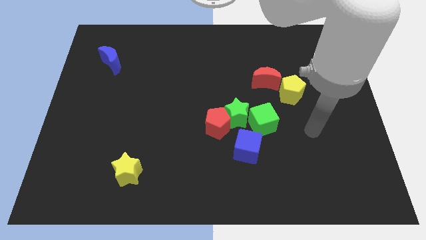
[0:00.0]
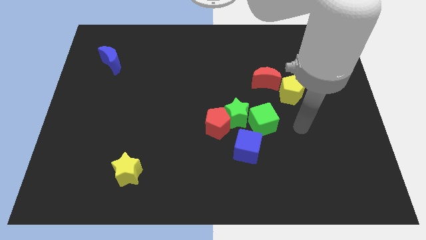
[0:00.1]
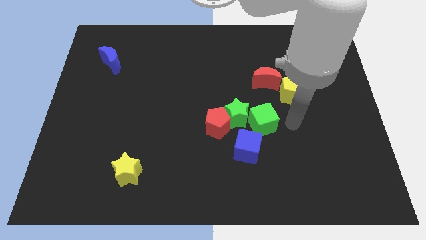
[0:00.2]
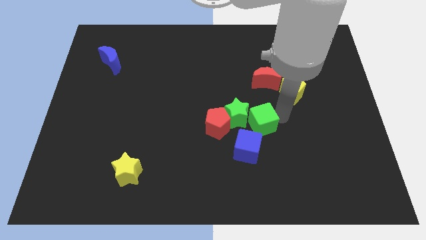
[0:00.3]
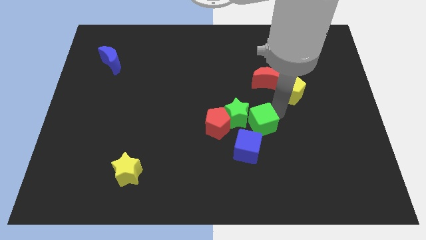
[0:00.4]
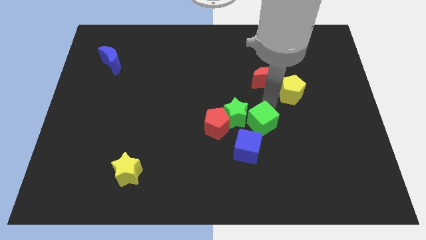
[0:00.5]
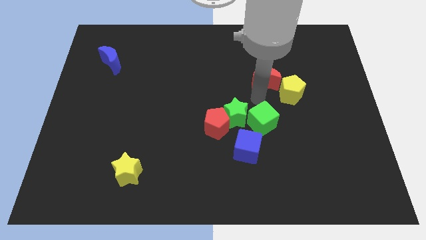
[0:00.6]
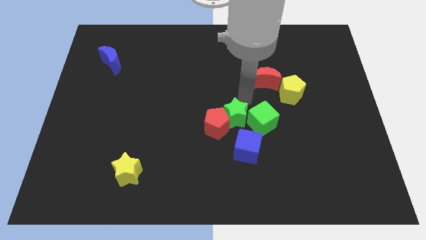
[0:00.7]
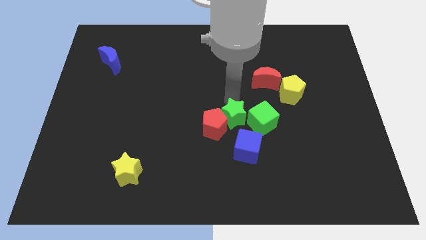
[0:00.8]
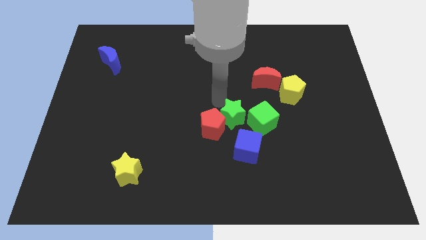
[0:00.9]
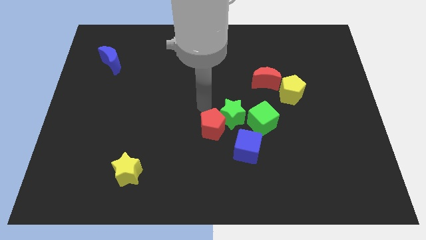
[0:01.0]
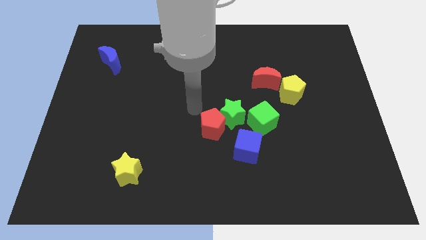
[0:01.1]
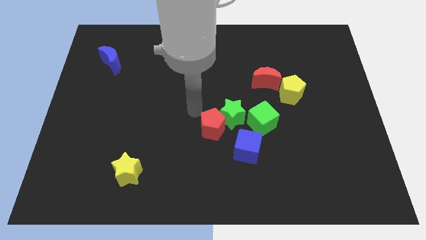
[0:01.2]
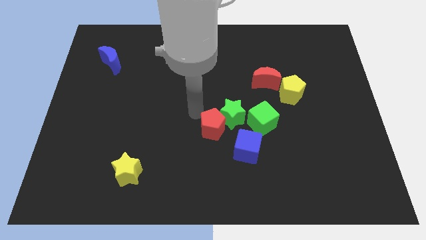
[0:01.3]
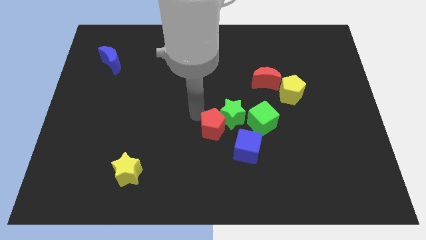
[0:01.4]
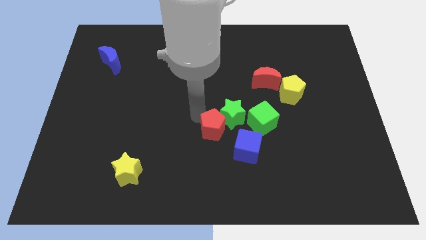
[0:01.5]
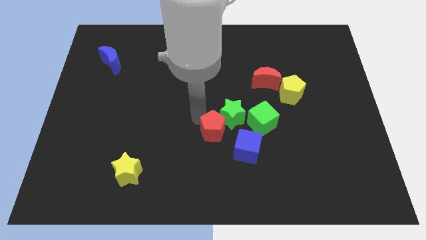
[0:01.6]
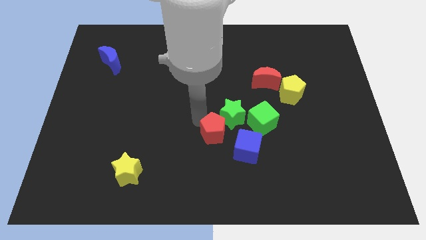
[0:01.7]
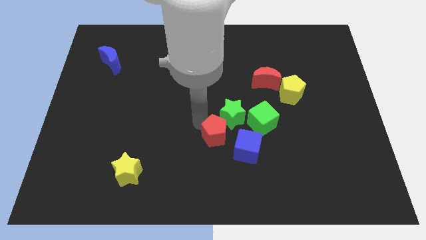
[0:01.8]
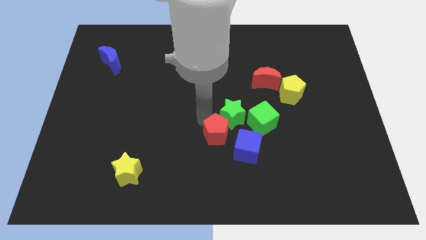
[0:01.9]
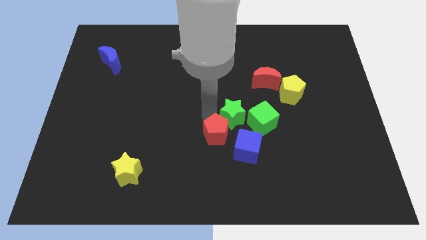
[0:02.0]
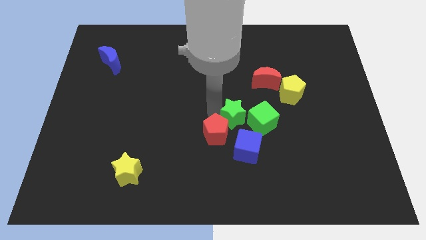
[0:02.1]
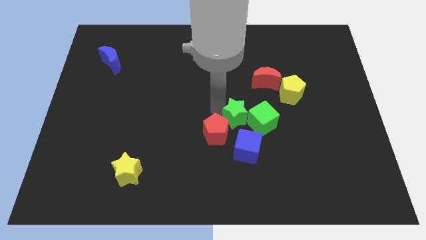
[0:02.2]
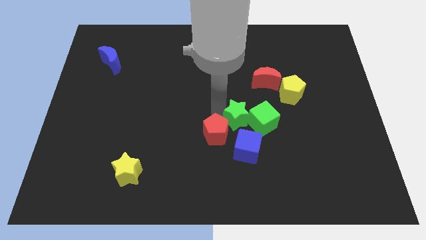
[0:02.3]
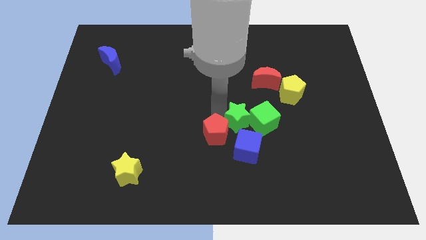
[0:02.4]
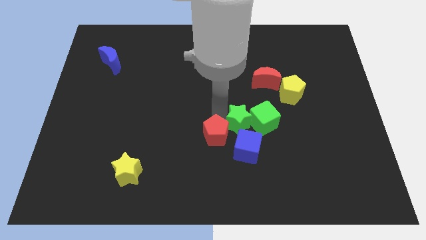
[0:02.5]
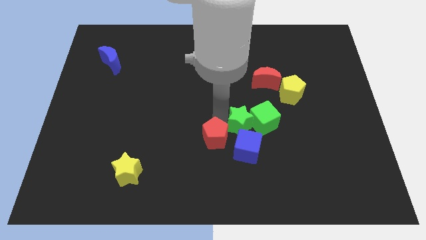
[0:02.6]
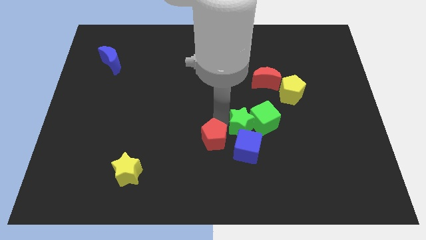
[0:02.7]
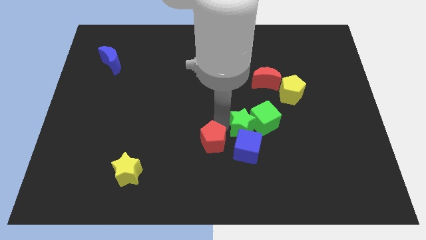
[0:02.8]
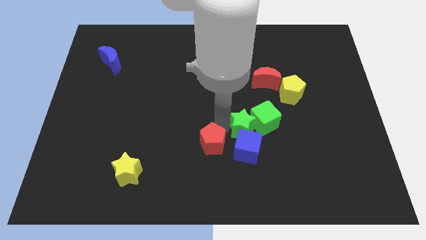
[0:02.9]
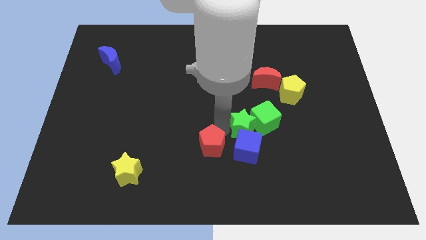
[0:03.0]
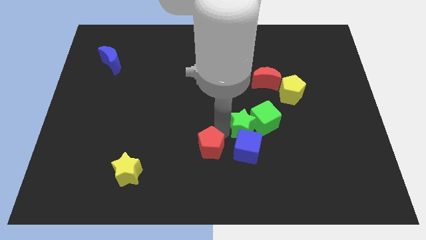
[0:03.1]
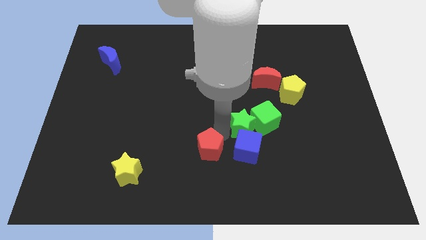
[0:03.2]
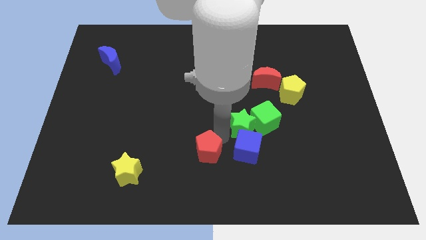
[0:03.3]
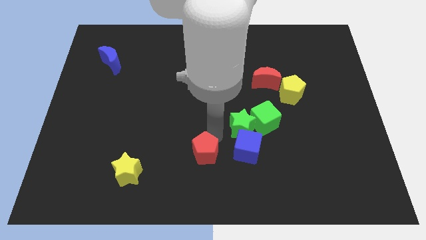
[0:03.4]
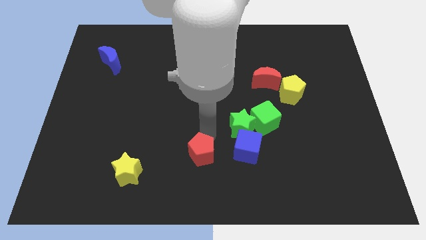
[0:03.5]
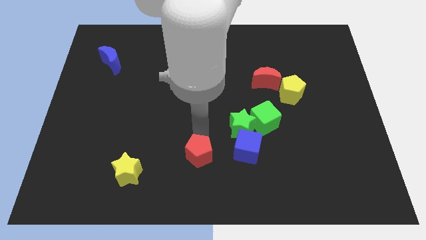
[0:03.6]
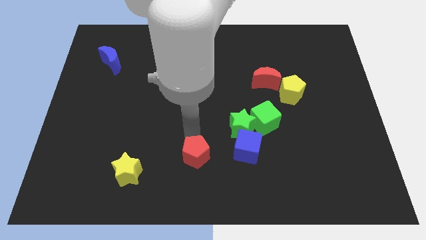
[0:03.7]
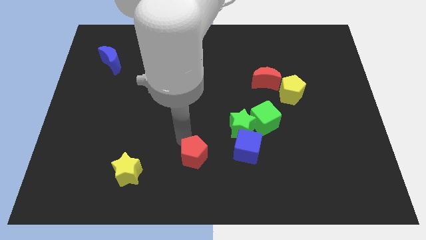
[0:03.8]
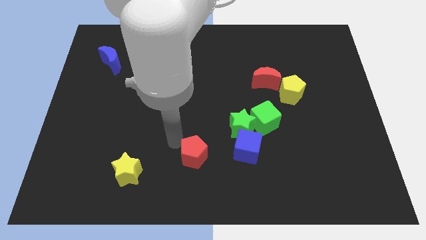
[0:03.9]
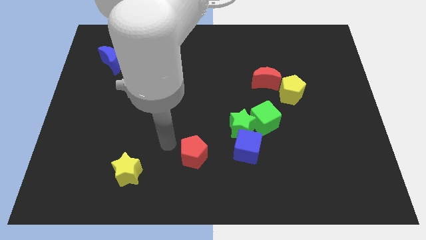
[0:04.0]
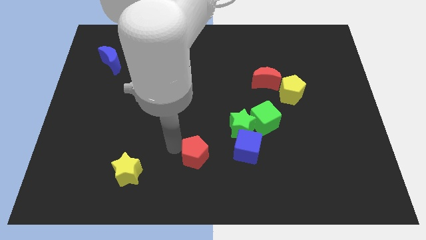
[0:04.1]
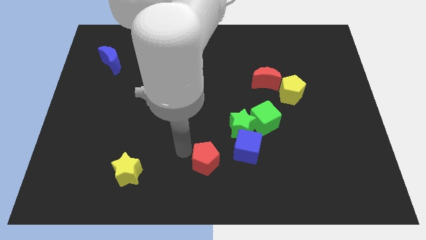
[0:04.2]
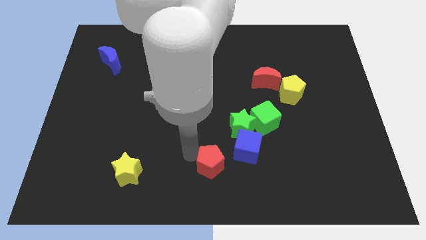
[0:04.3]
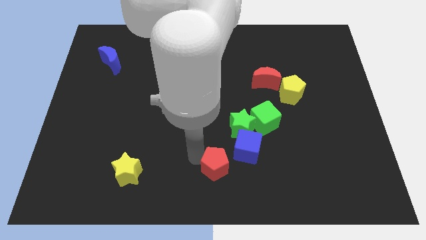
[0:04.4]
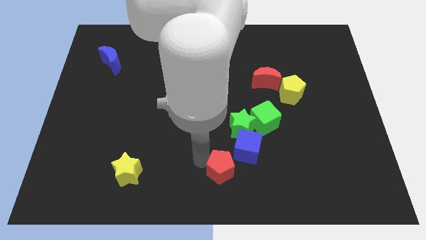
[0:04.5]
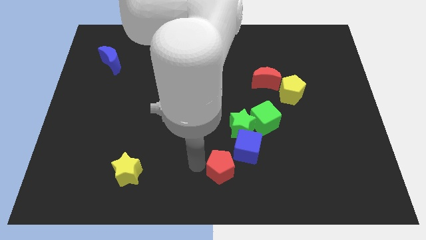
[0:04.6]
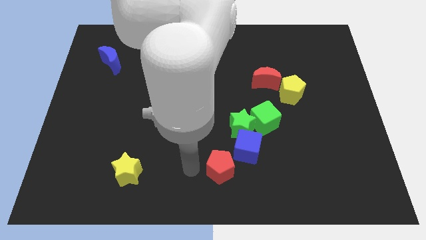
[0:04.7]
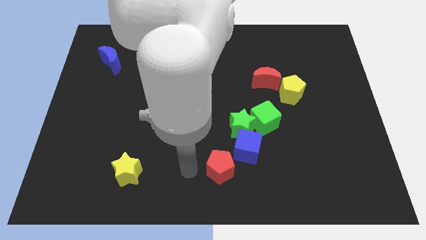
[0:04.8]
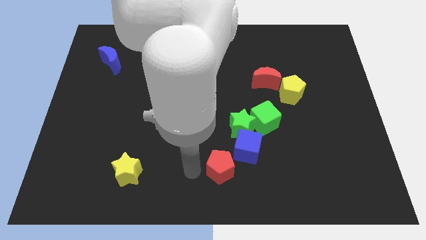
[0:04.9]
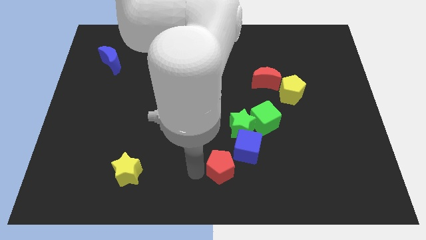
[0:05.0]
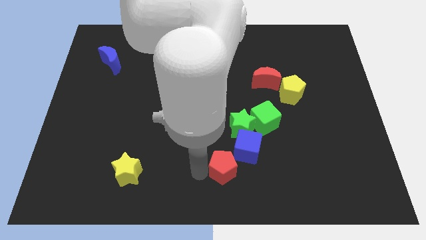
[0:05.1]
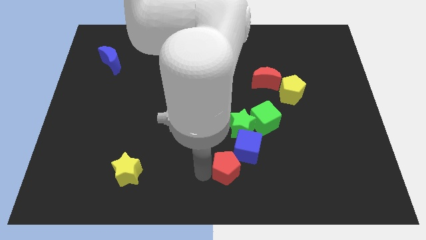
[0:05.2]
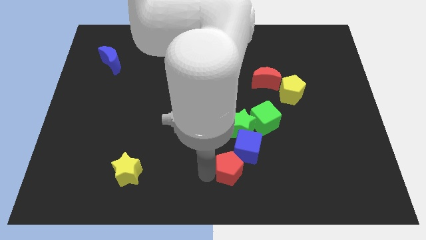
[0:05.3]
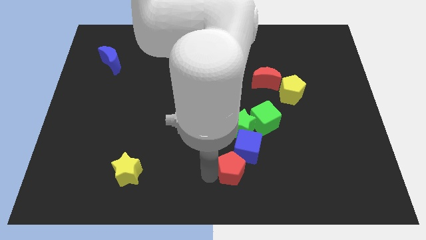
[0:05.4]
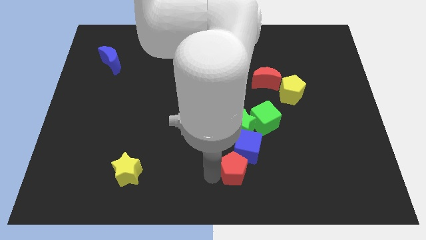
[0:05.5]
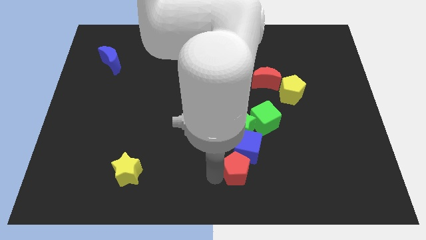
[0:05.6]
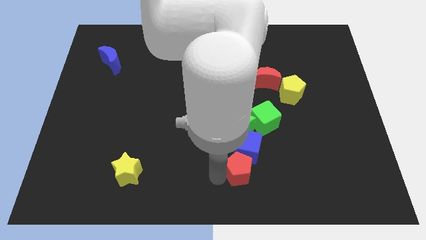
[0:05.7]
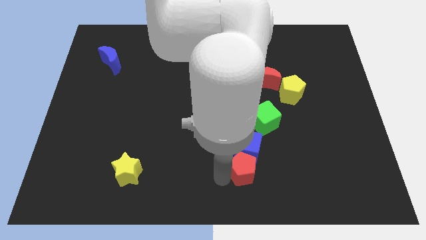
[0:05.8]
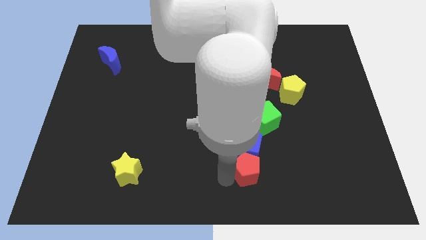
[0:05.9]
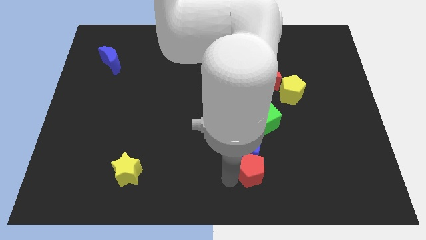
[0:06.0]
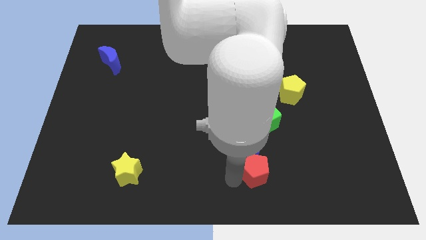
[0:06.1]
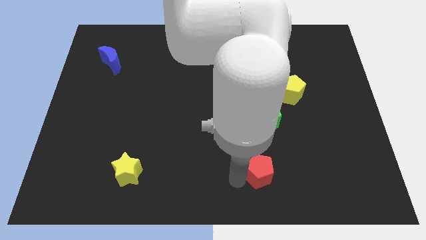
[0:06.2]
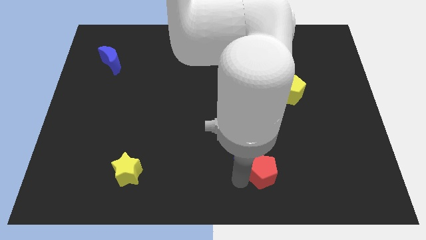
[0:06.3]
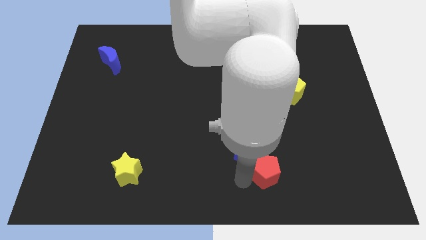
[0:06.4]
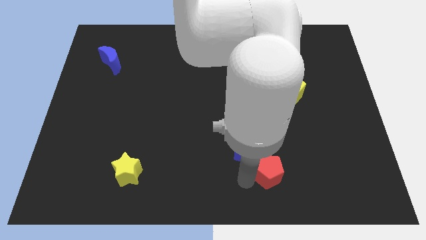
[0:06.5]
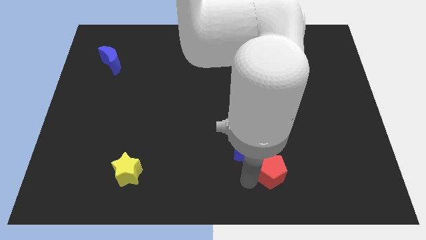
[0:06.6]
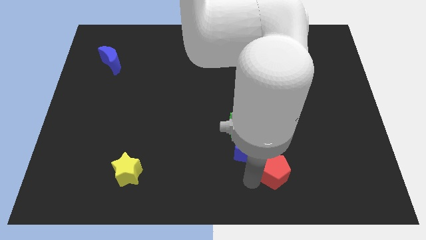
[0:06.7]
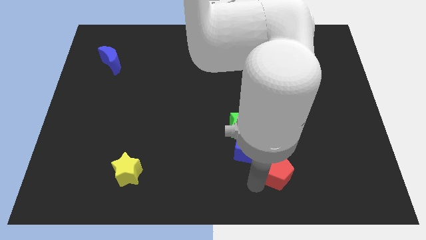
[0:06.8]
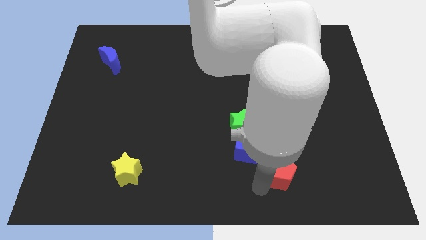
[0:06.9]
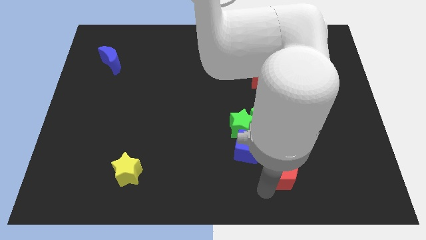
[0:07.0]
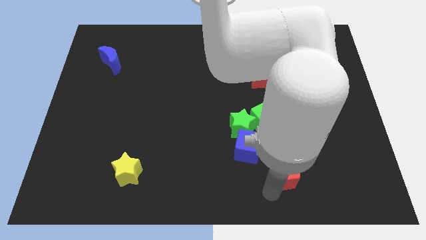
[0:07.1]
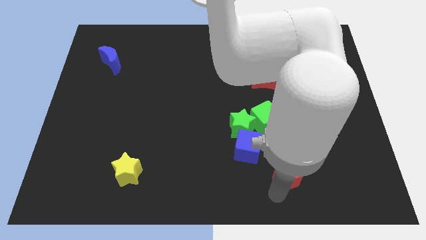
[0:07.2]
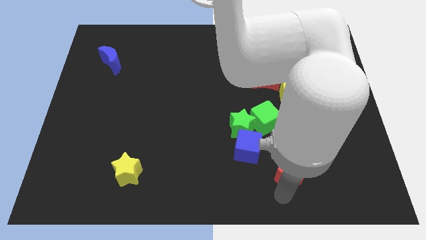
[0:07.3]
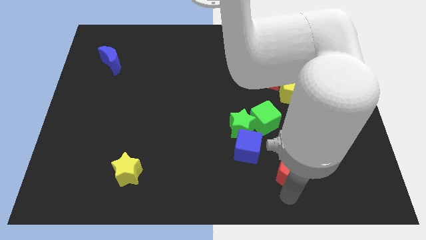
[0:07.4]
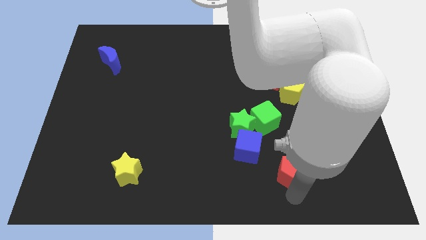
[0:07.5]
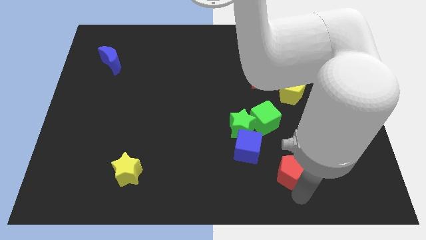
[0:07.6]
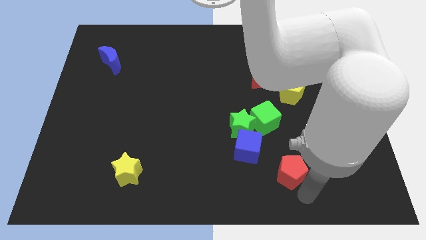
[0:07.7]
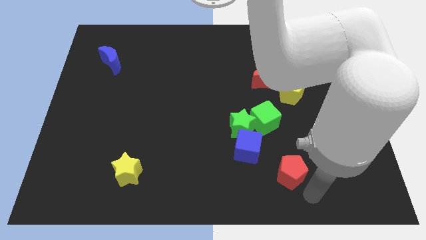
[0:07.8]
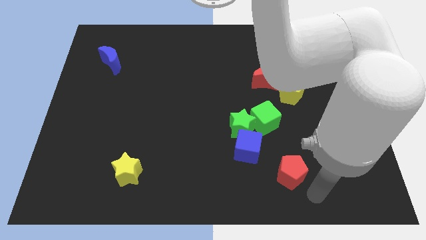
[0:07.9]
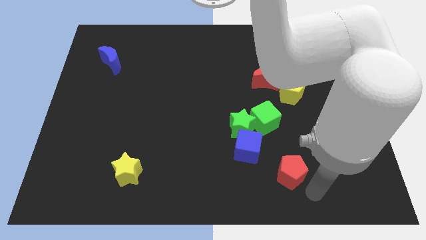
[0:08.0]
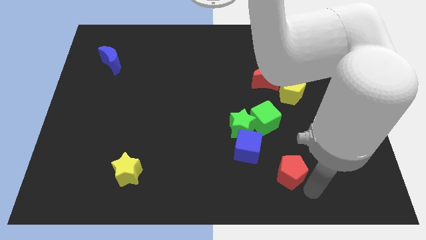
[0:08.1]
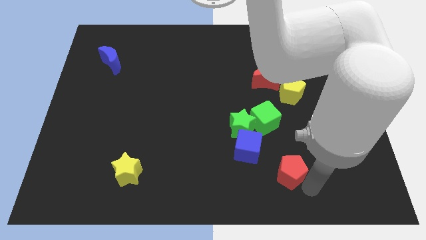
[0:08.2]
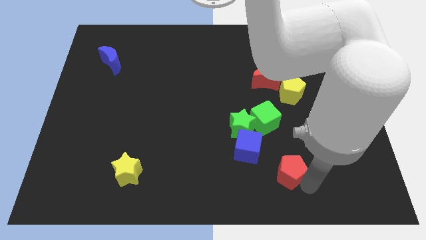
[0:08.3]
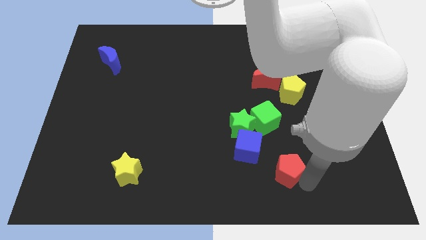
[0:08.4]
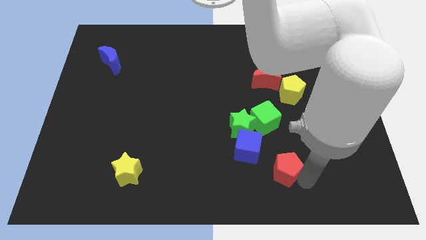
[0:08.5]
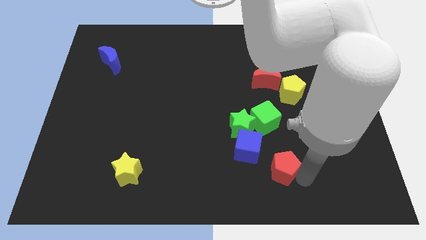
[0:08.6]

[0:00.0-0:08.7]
push the red pentagon right of the blue cube
